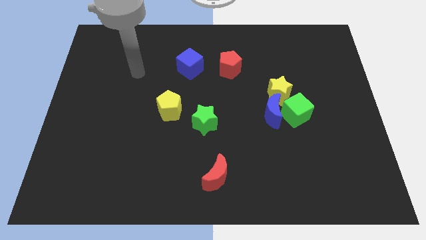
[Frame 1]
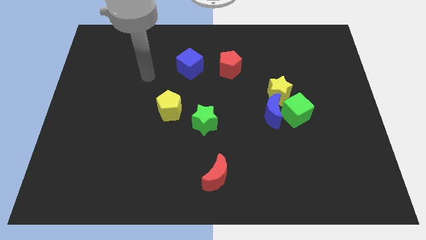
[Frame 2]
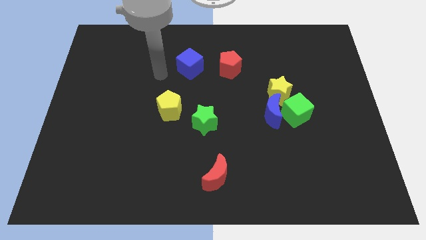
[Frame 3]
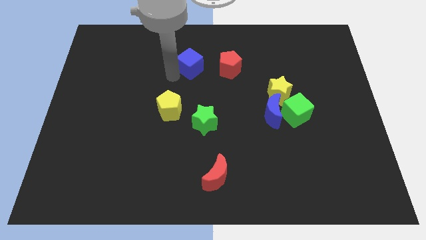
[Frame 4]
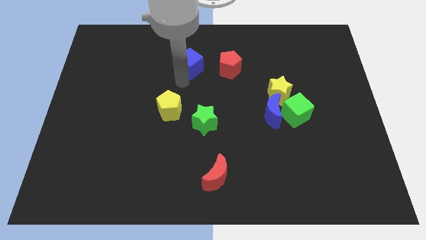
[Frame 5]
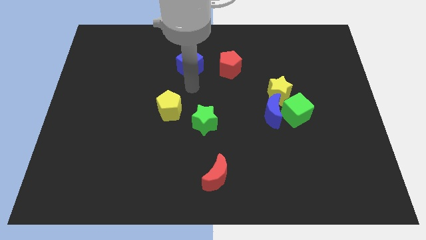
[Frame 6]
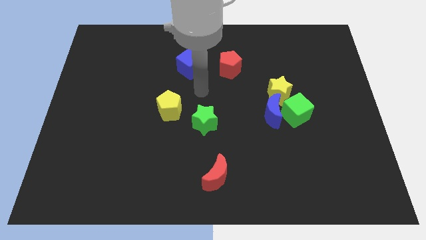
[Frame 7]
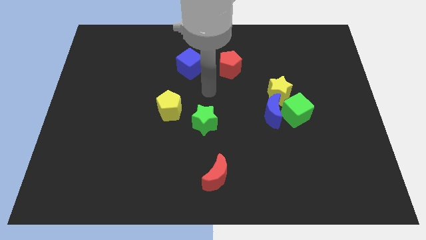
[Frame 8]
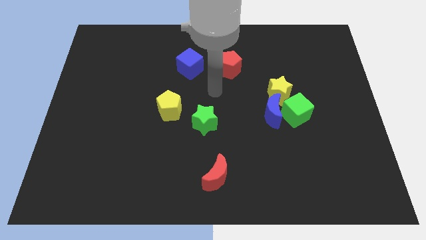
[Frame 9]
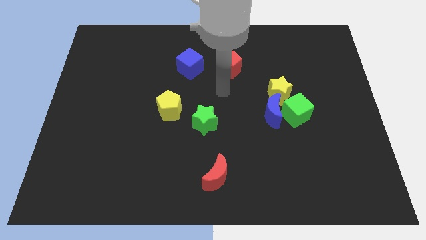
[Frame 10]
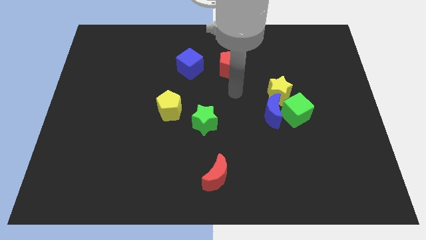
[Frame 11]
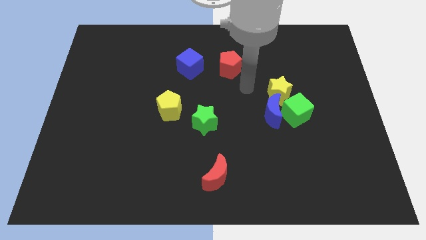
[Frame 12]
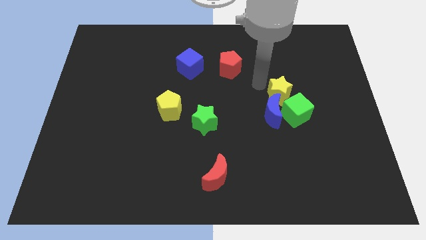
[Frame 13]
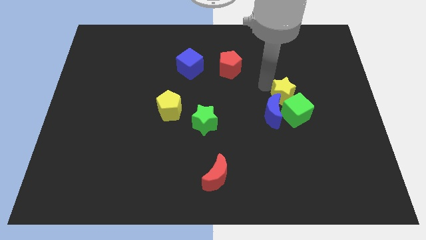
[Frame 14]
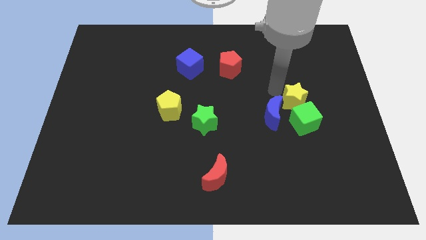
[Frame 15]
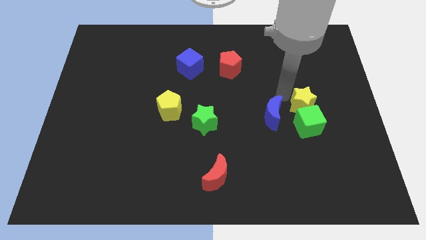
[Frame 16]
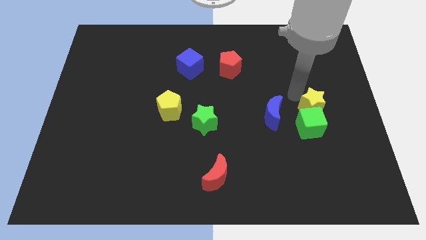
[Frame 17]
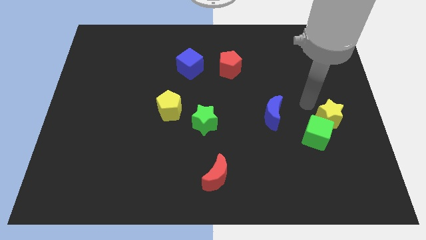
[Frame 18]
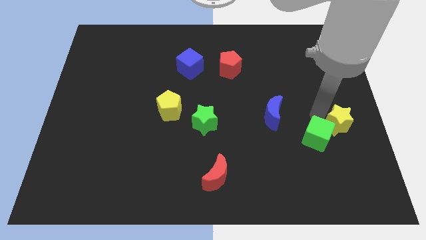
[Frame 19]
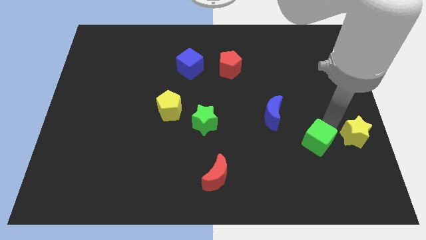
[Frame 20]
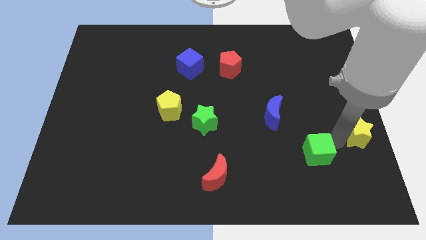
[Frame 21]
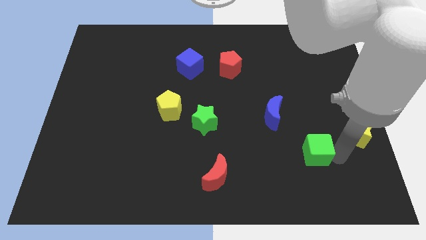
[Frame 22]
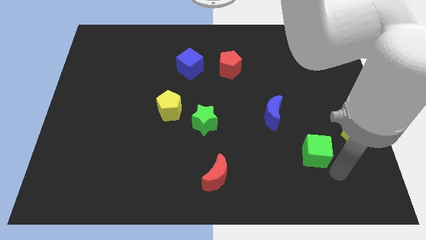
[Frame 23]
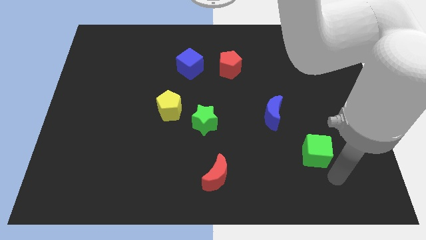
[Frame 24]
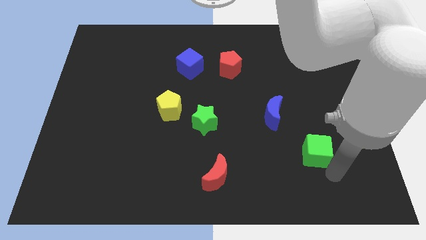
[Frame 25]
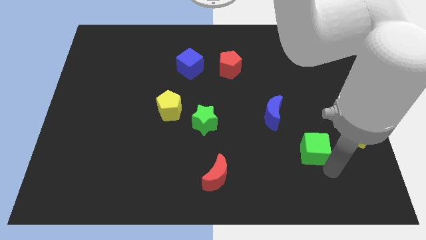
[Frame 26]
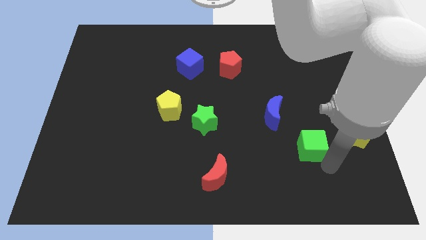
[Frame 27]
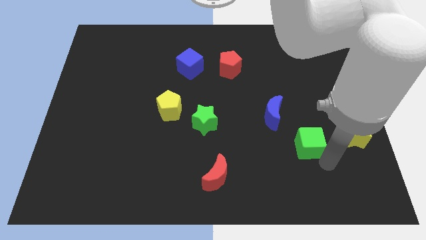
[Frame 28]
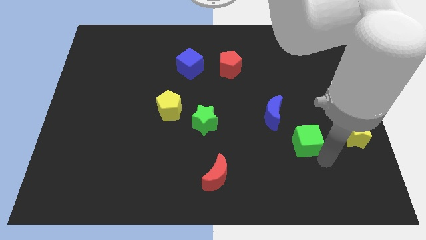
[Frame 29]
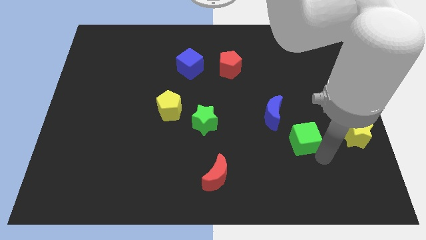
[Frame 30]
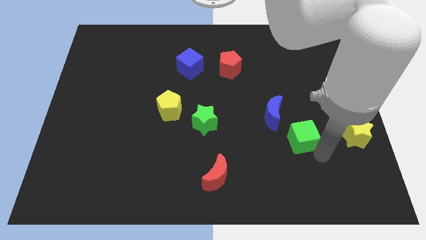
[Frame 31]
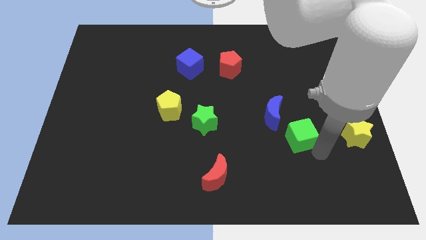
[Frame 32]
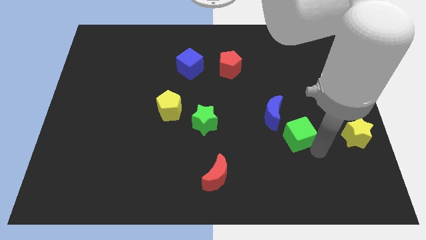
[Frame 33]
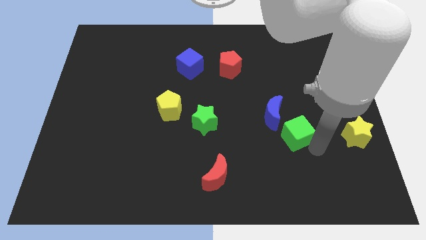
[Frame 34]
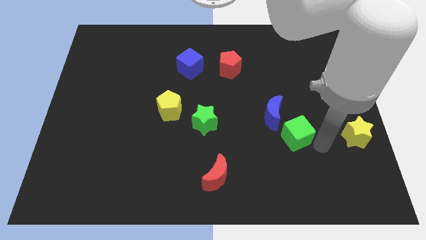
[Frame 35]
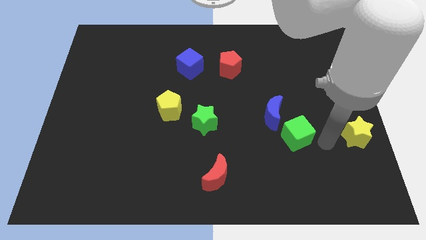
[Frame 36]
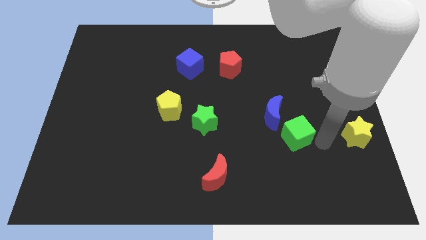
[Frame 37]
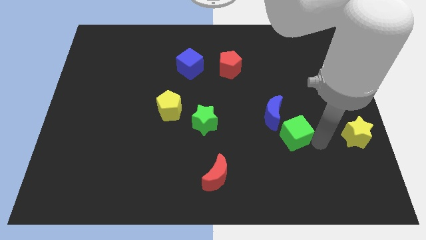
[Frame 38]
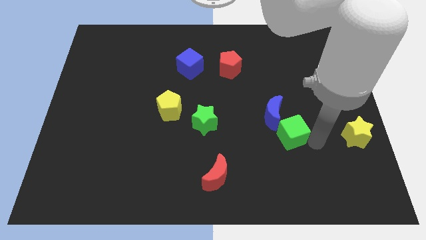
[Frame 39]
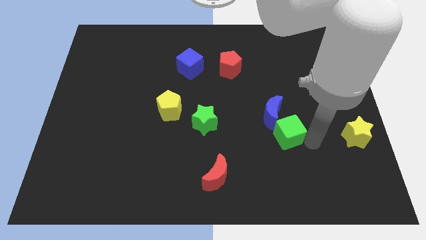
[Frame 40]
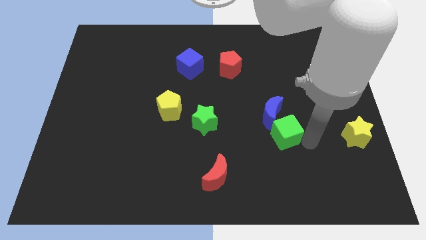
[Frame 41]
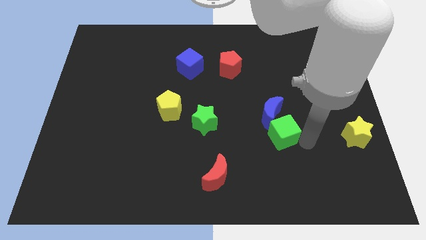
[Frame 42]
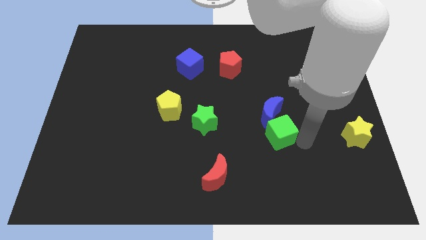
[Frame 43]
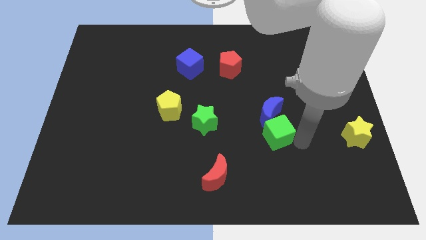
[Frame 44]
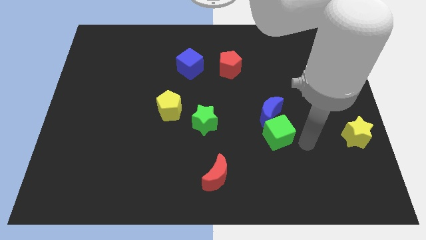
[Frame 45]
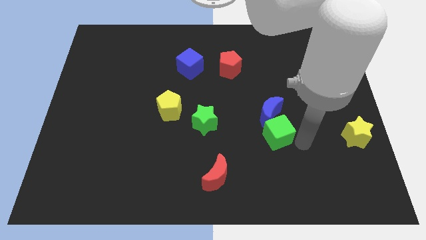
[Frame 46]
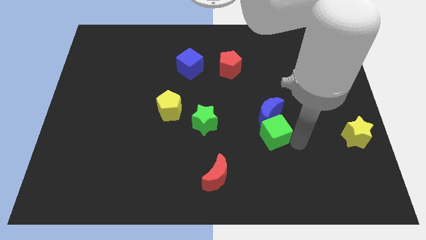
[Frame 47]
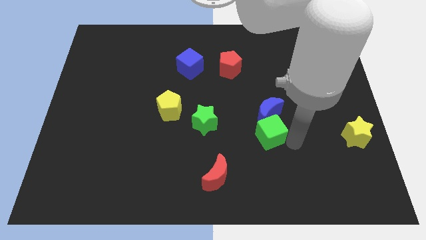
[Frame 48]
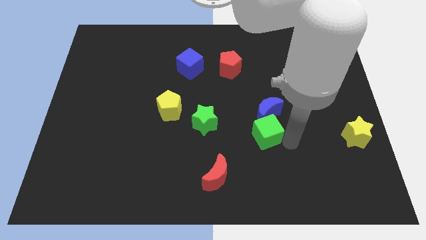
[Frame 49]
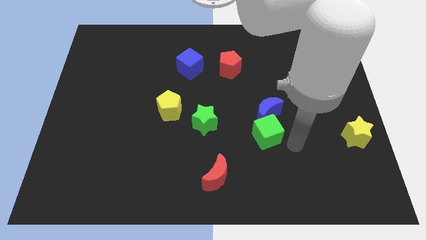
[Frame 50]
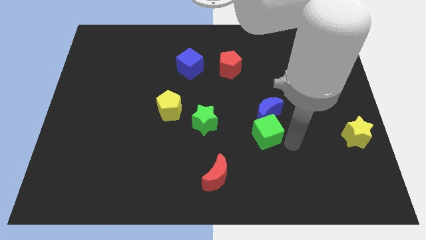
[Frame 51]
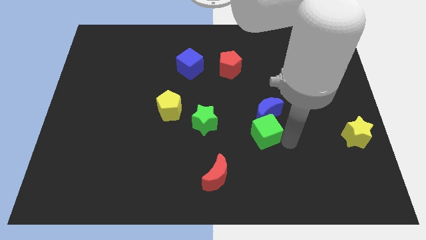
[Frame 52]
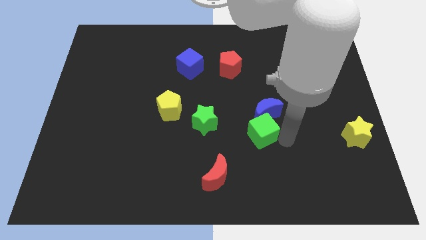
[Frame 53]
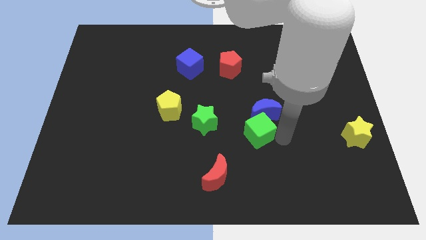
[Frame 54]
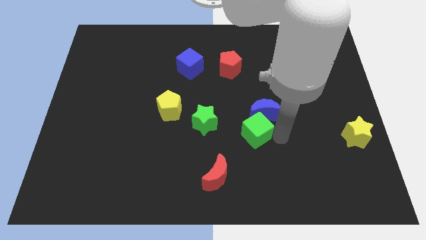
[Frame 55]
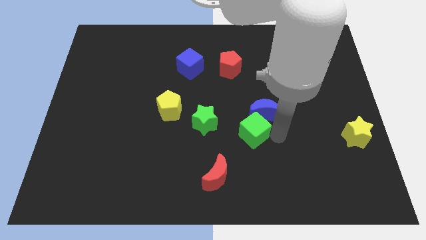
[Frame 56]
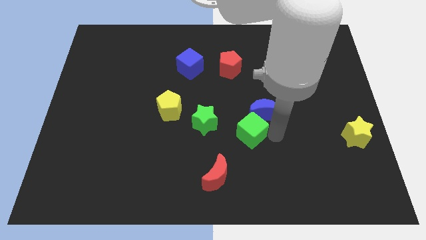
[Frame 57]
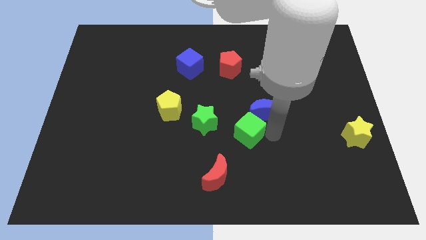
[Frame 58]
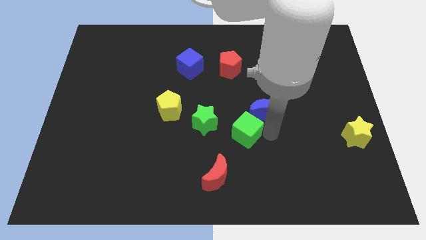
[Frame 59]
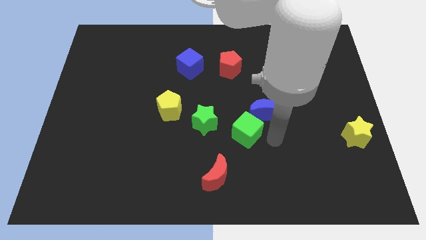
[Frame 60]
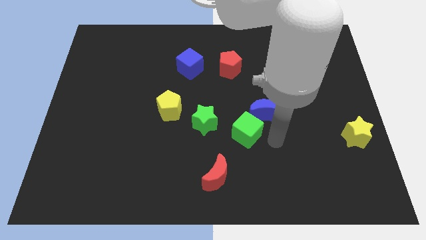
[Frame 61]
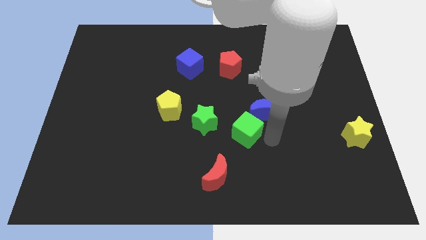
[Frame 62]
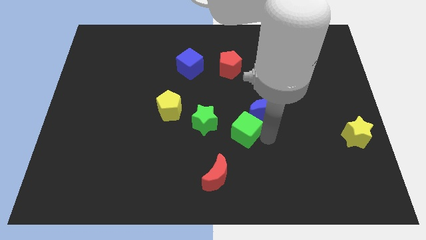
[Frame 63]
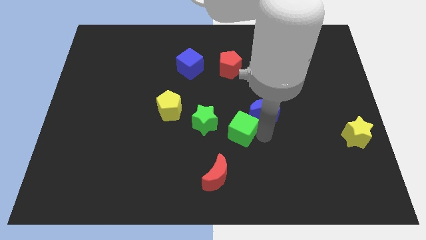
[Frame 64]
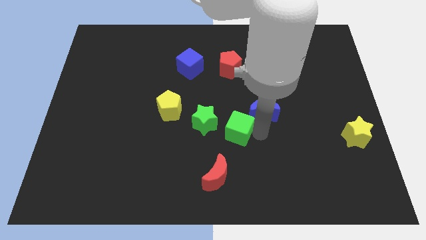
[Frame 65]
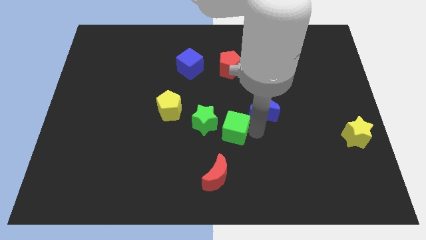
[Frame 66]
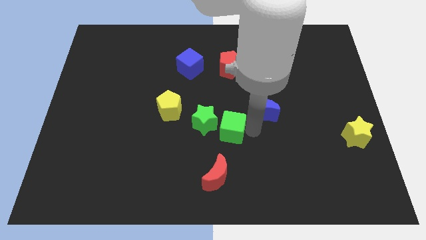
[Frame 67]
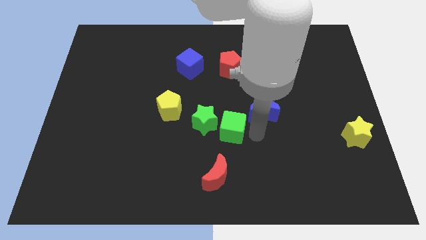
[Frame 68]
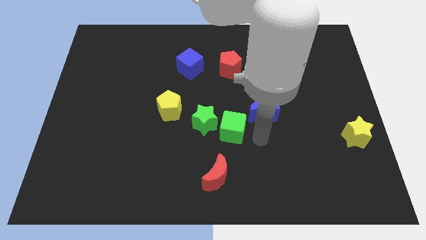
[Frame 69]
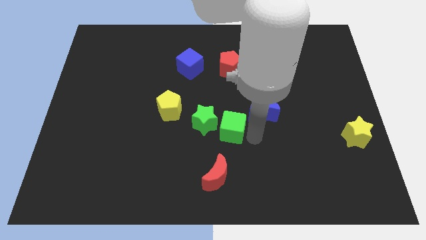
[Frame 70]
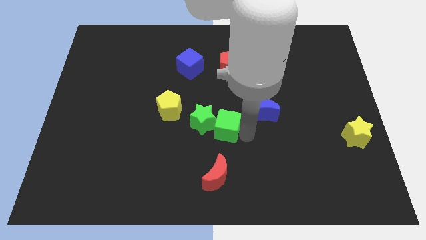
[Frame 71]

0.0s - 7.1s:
move the green cube next to the green star

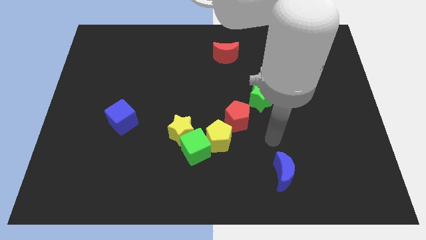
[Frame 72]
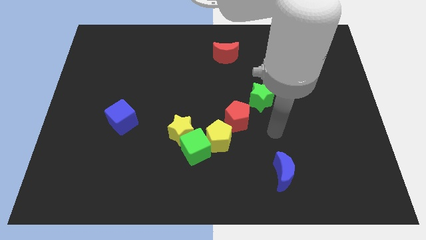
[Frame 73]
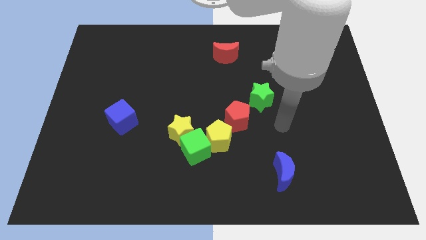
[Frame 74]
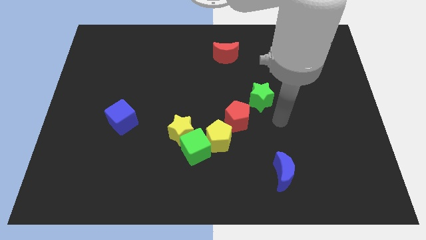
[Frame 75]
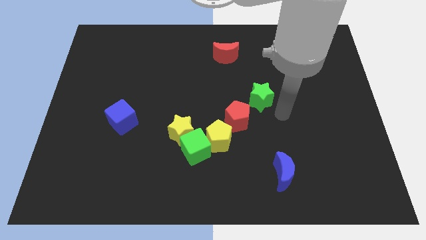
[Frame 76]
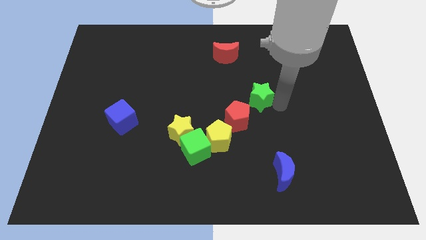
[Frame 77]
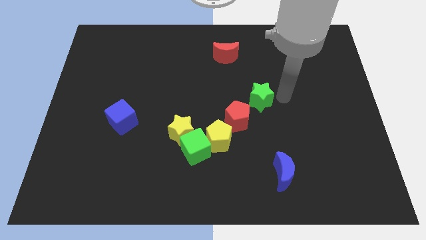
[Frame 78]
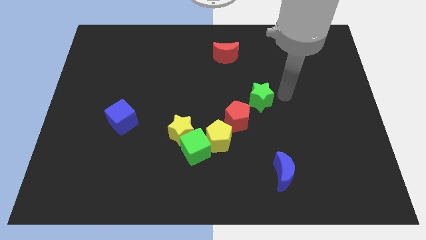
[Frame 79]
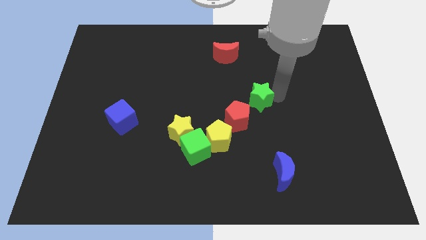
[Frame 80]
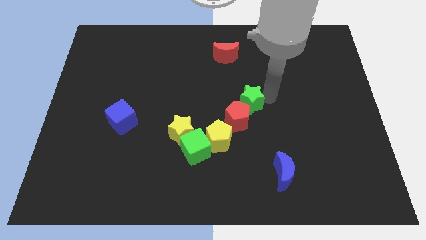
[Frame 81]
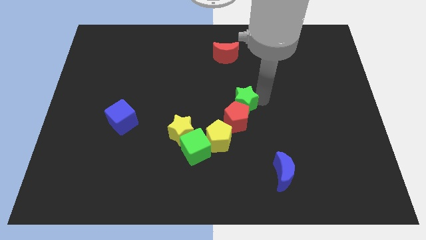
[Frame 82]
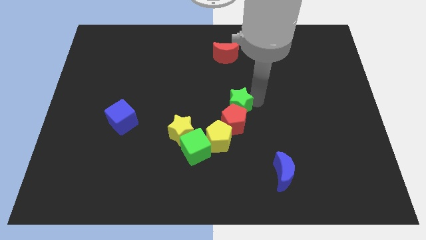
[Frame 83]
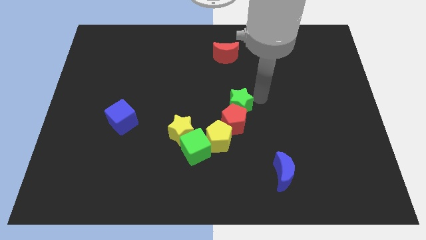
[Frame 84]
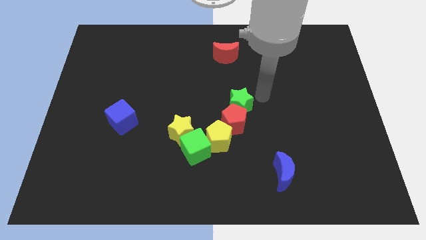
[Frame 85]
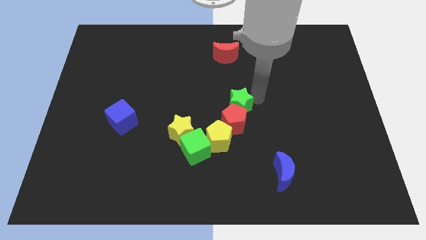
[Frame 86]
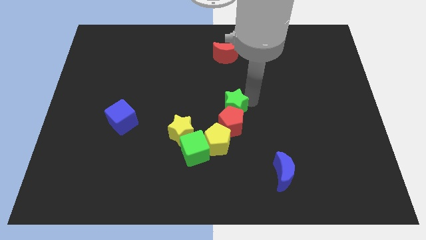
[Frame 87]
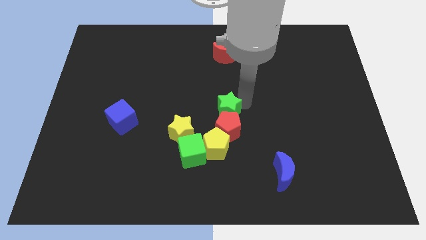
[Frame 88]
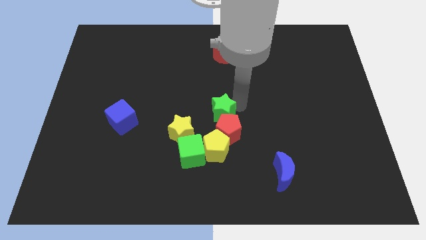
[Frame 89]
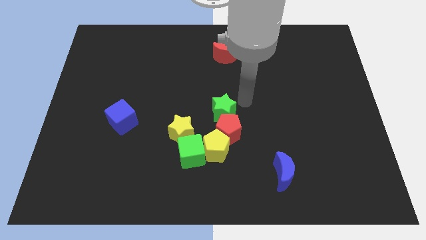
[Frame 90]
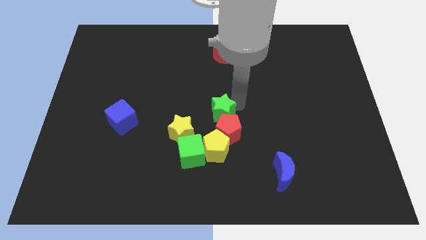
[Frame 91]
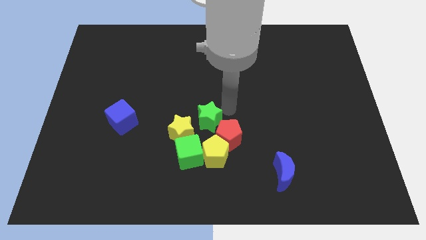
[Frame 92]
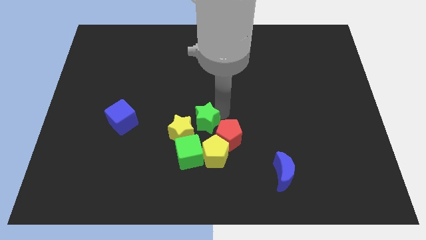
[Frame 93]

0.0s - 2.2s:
slide the green star towards the yellow star
